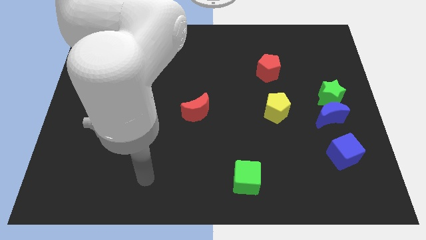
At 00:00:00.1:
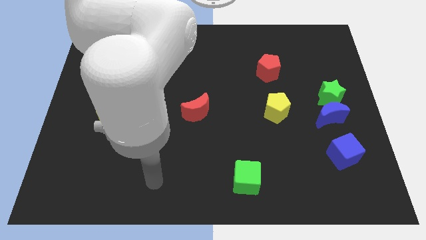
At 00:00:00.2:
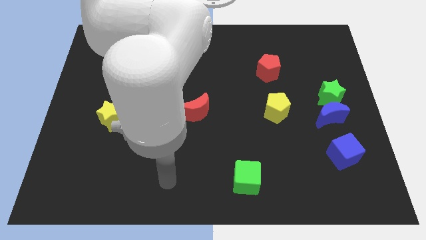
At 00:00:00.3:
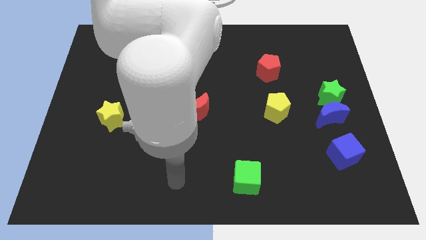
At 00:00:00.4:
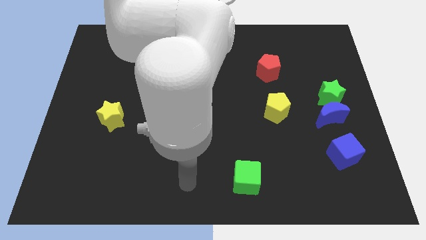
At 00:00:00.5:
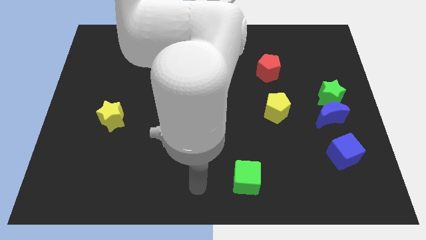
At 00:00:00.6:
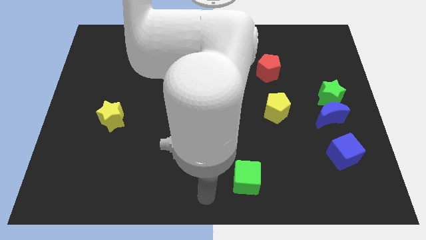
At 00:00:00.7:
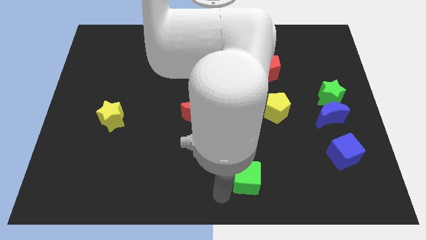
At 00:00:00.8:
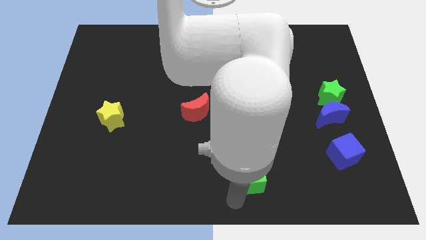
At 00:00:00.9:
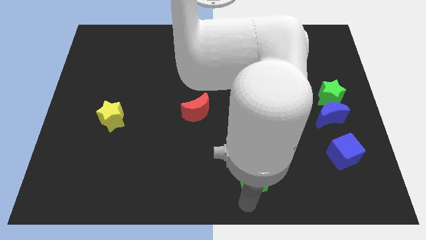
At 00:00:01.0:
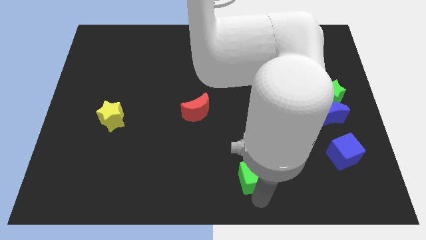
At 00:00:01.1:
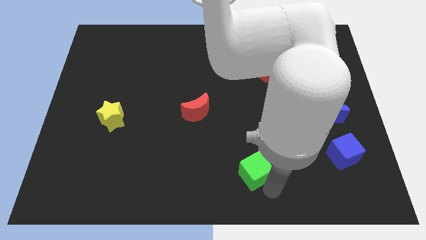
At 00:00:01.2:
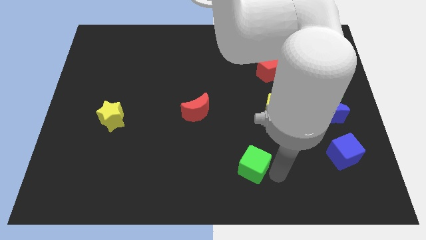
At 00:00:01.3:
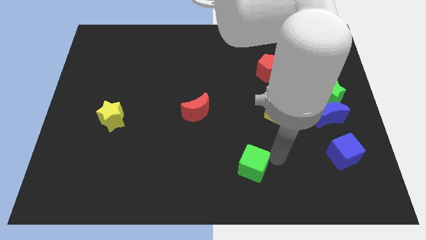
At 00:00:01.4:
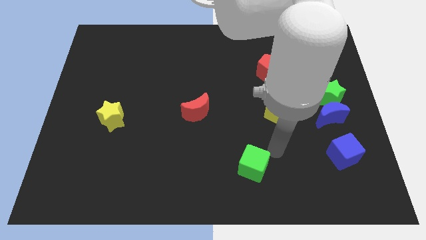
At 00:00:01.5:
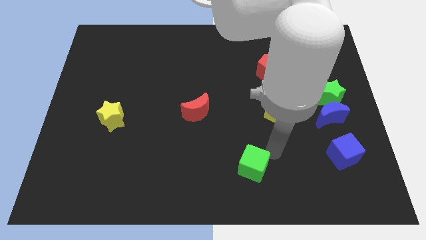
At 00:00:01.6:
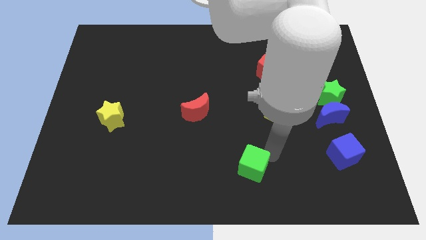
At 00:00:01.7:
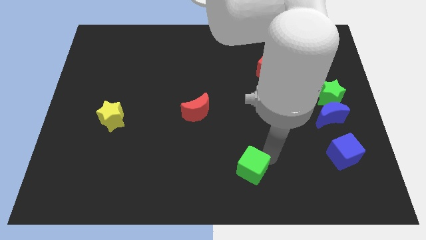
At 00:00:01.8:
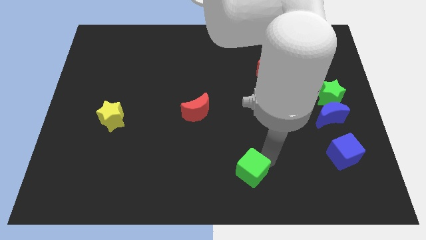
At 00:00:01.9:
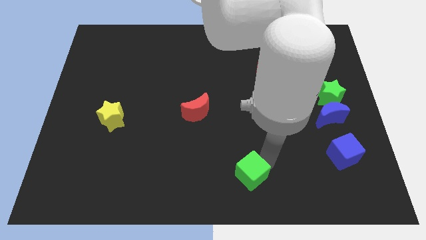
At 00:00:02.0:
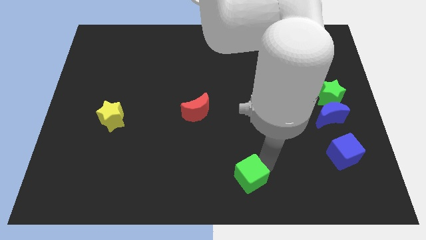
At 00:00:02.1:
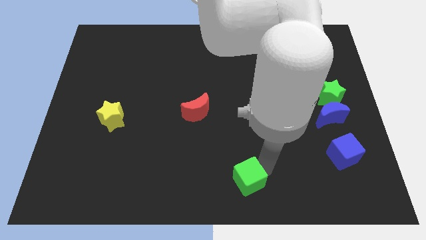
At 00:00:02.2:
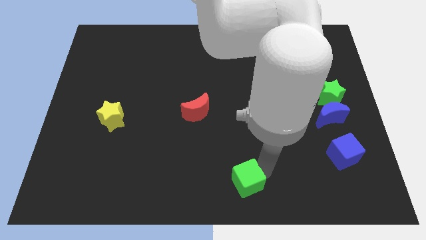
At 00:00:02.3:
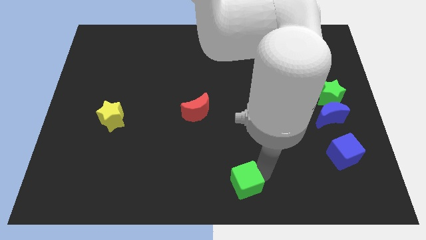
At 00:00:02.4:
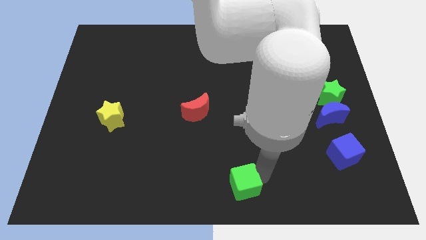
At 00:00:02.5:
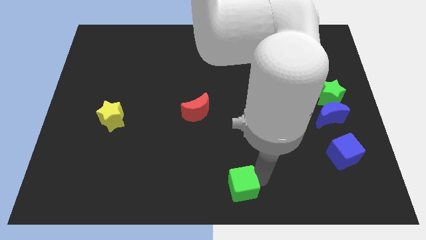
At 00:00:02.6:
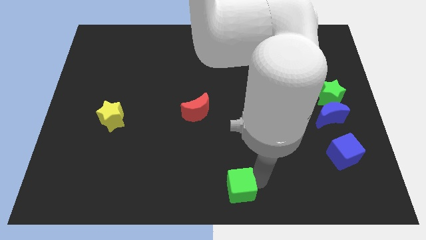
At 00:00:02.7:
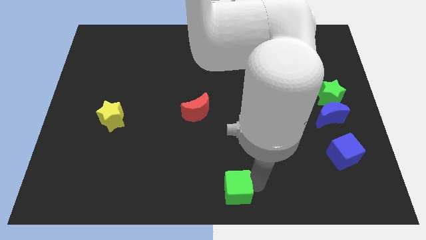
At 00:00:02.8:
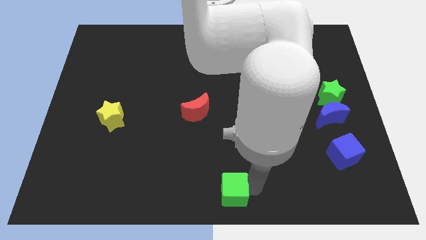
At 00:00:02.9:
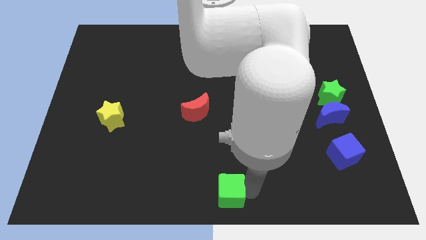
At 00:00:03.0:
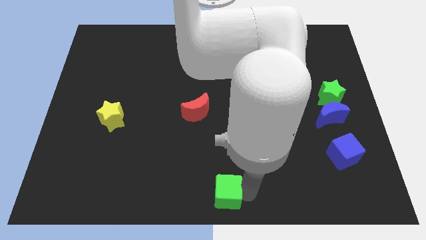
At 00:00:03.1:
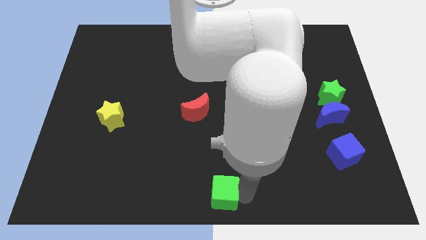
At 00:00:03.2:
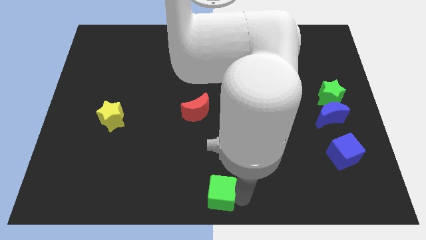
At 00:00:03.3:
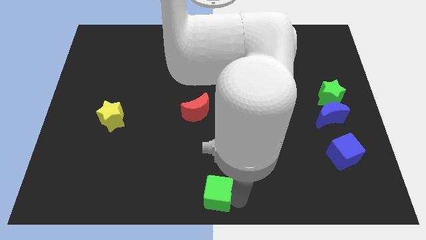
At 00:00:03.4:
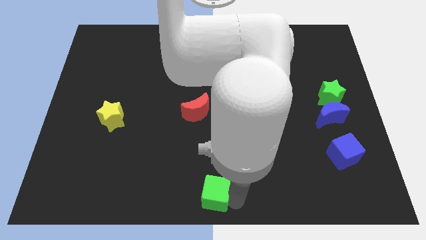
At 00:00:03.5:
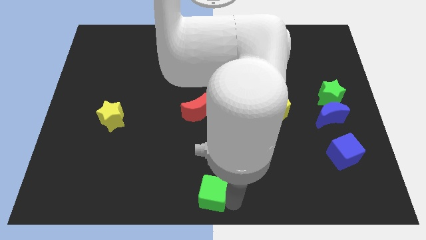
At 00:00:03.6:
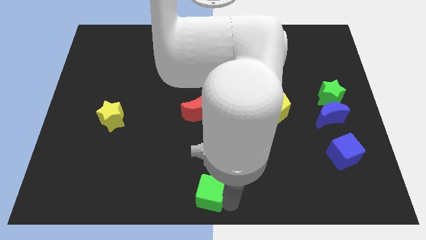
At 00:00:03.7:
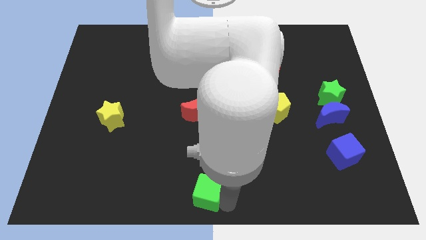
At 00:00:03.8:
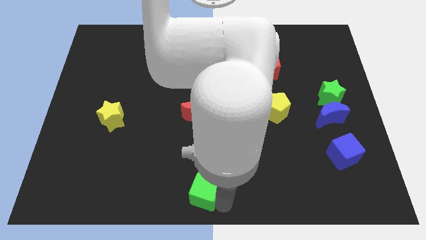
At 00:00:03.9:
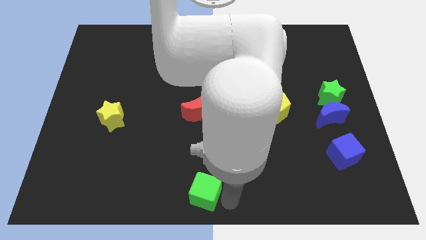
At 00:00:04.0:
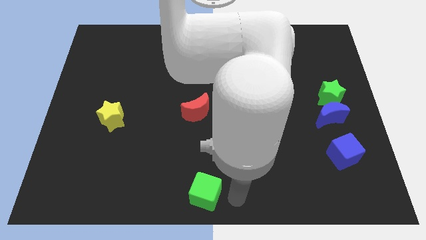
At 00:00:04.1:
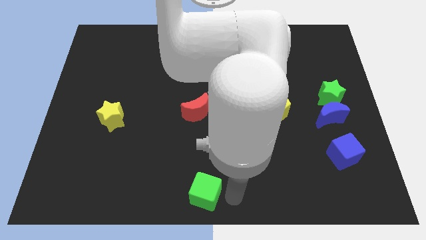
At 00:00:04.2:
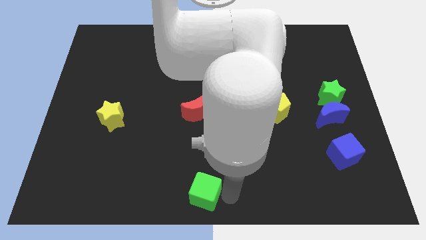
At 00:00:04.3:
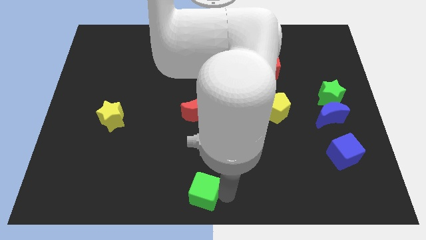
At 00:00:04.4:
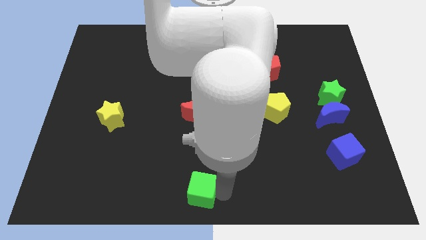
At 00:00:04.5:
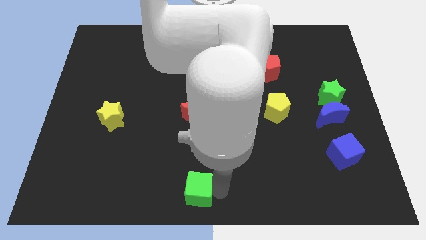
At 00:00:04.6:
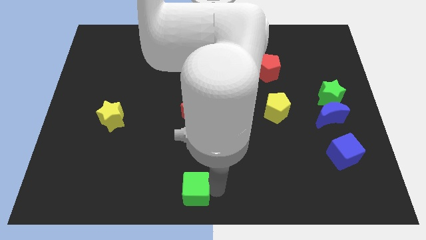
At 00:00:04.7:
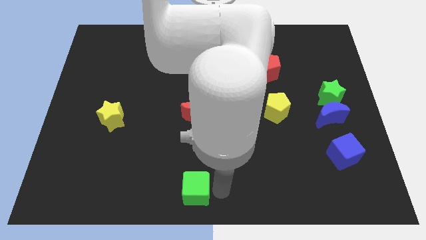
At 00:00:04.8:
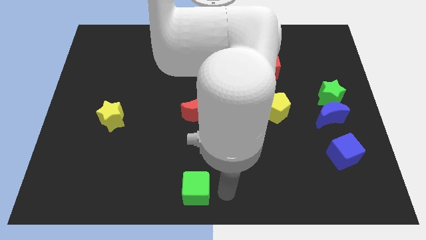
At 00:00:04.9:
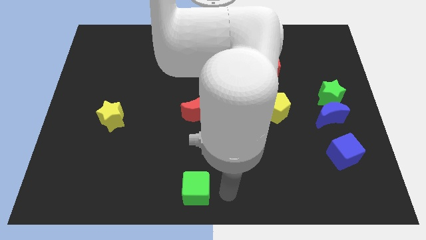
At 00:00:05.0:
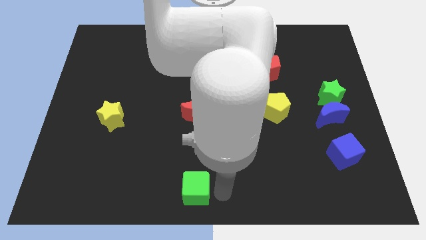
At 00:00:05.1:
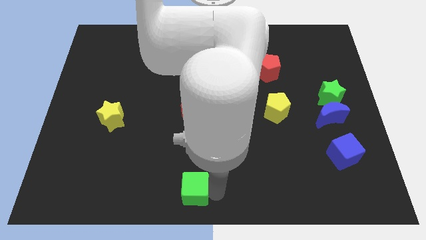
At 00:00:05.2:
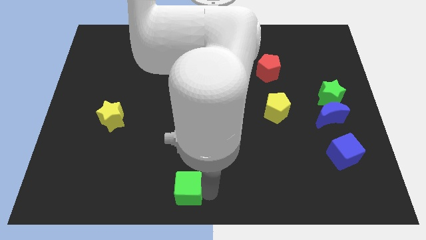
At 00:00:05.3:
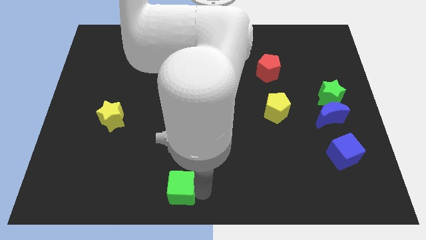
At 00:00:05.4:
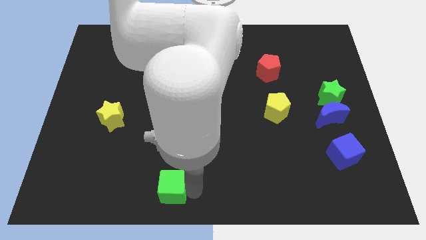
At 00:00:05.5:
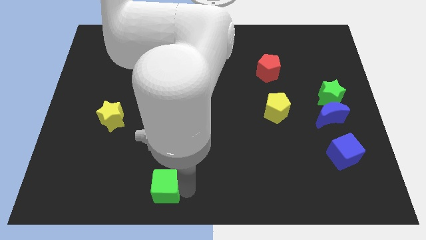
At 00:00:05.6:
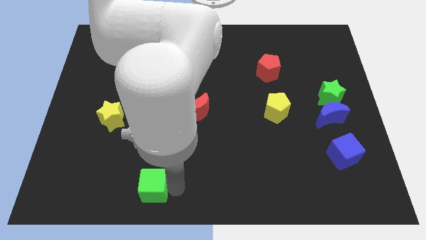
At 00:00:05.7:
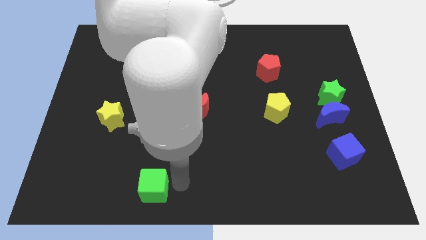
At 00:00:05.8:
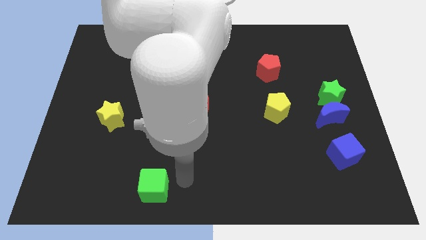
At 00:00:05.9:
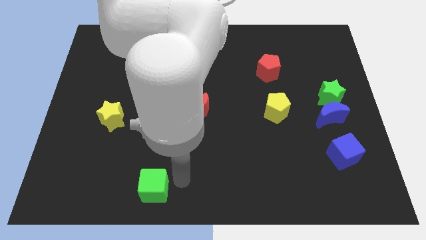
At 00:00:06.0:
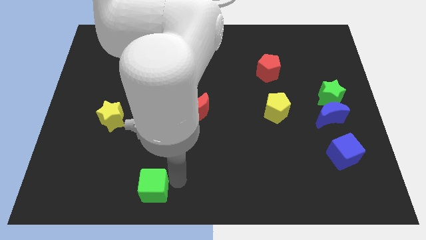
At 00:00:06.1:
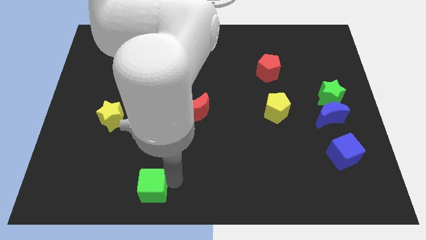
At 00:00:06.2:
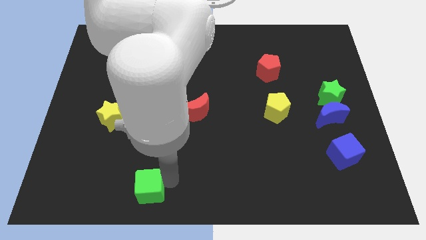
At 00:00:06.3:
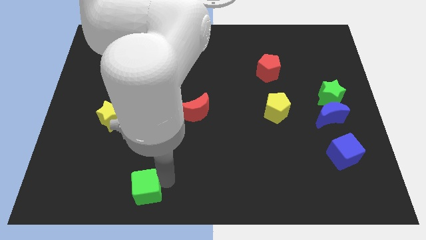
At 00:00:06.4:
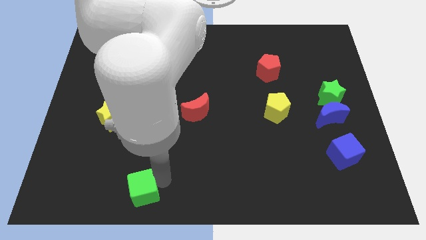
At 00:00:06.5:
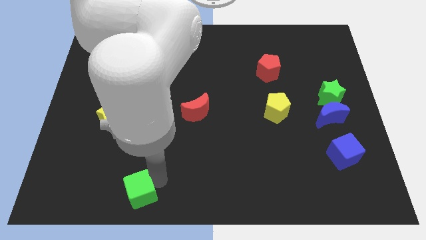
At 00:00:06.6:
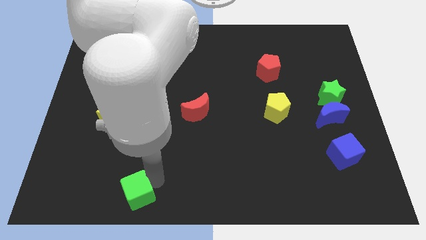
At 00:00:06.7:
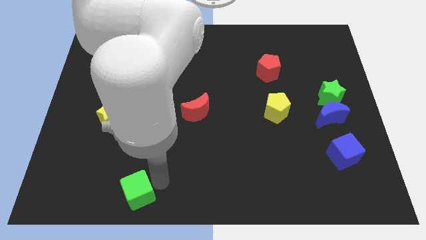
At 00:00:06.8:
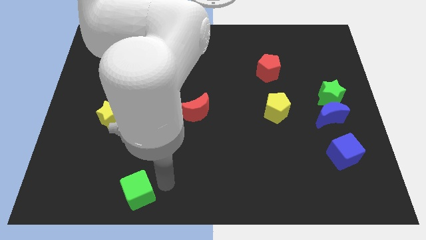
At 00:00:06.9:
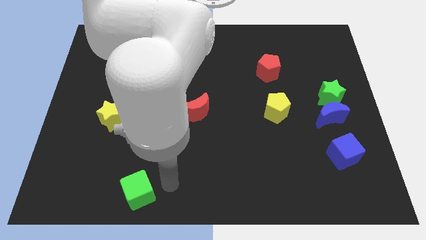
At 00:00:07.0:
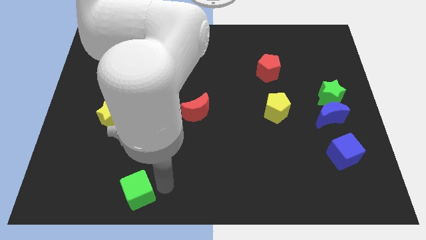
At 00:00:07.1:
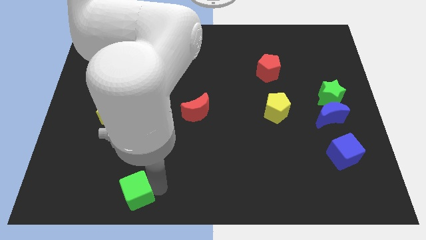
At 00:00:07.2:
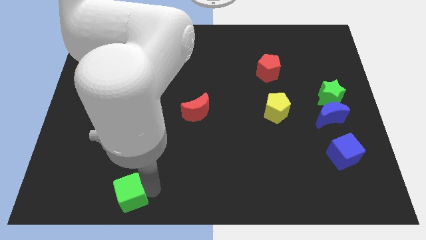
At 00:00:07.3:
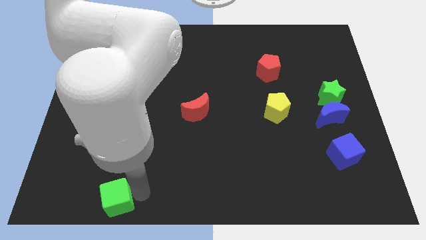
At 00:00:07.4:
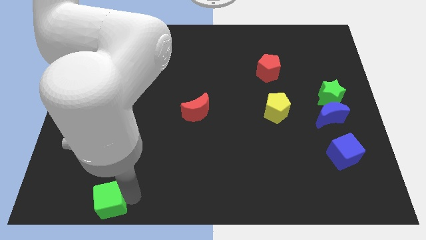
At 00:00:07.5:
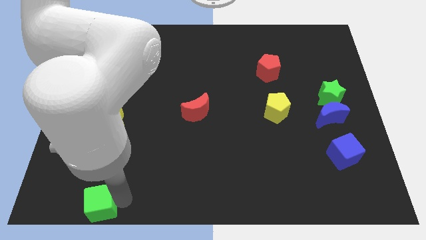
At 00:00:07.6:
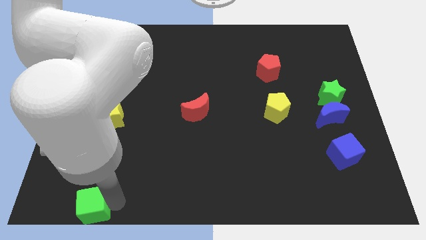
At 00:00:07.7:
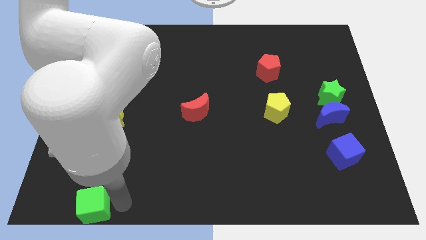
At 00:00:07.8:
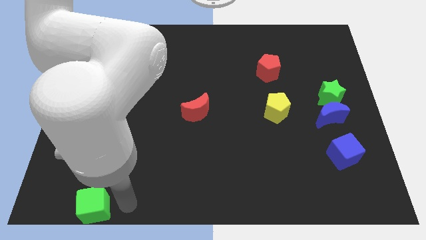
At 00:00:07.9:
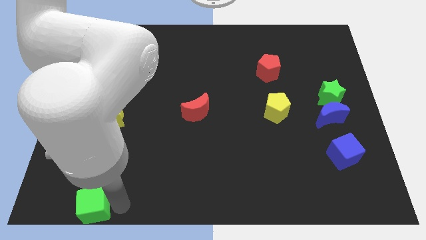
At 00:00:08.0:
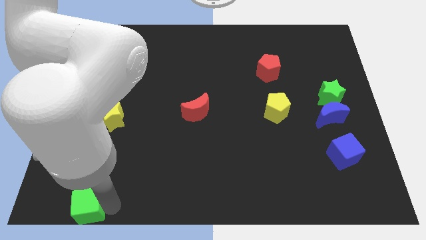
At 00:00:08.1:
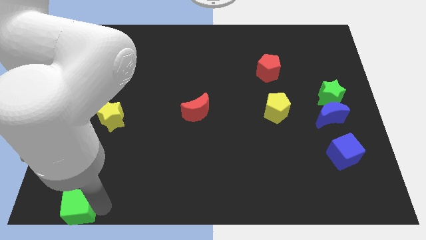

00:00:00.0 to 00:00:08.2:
push the green cube to the bottom left of the board
